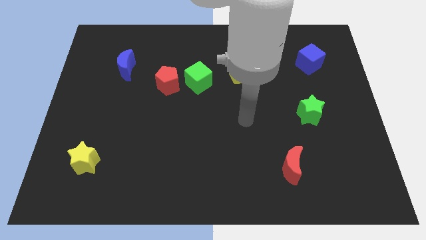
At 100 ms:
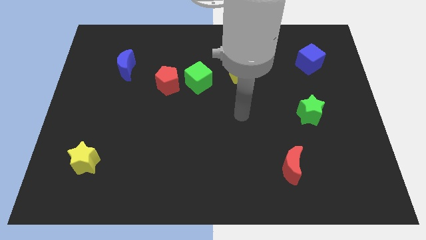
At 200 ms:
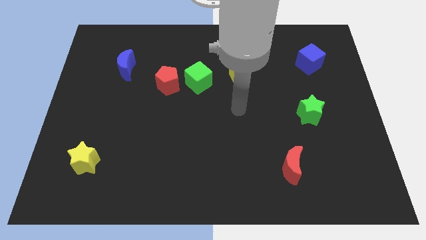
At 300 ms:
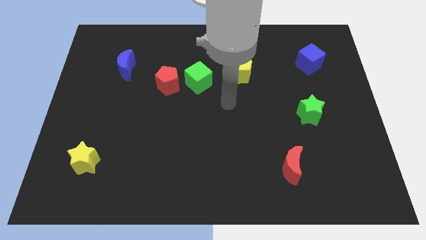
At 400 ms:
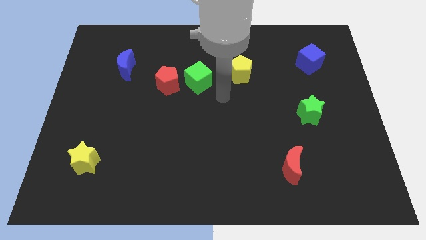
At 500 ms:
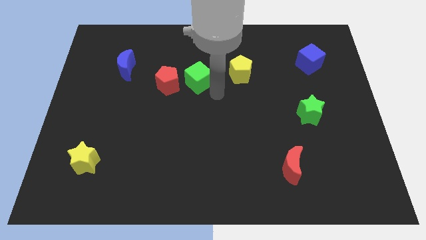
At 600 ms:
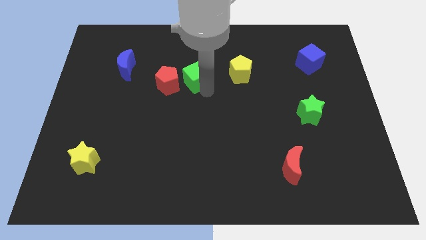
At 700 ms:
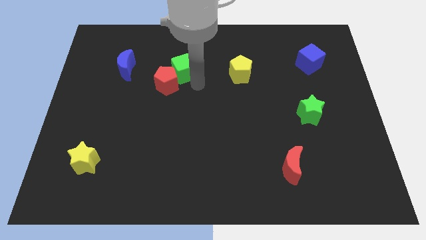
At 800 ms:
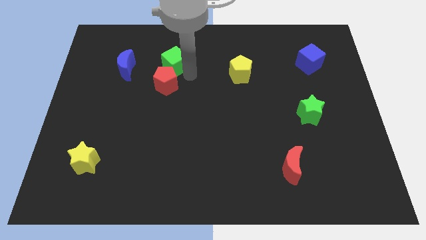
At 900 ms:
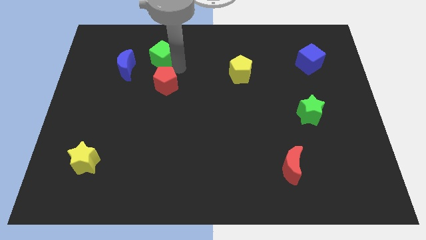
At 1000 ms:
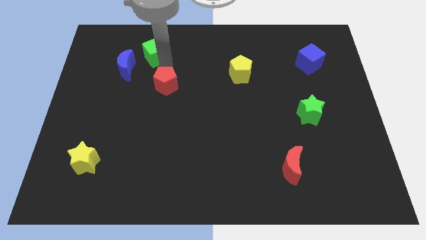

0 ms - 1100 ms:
move the red pentagon away from the green cube

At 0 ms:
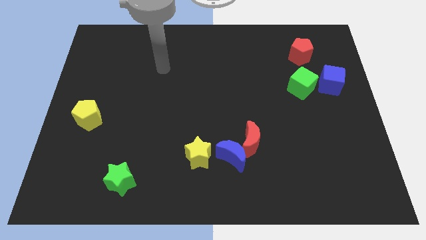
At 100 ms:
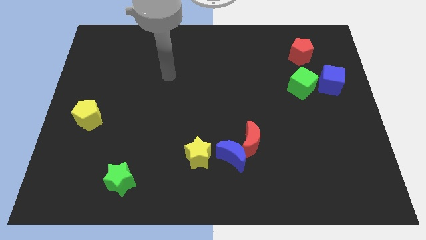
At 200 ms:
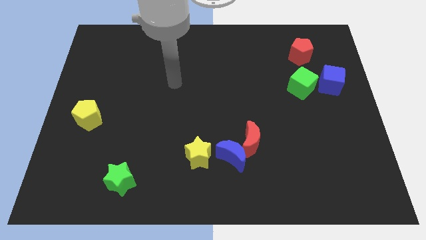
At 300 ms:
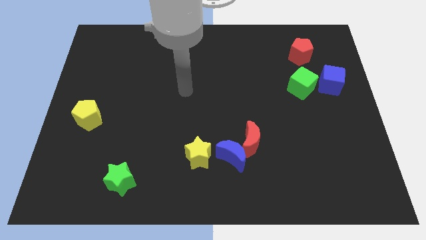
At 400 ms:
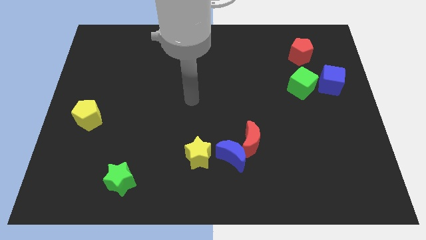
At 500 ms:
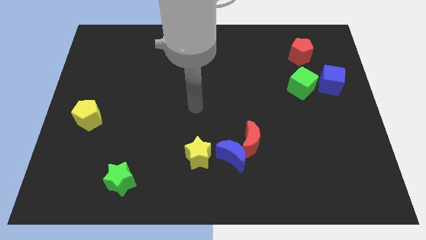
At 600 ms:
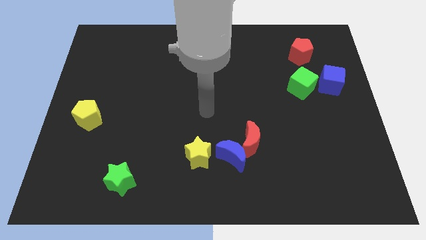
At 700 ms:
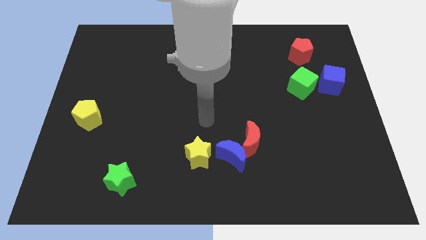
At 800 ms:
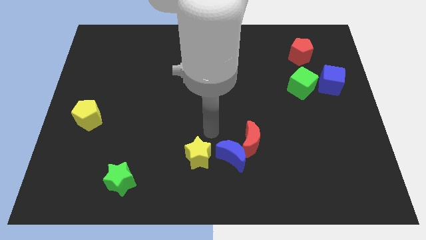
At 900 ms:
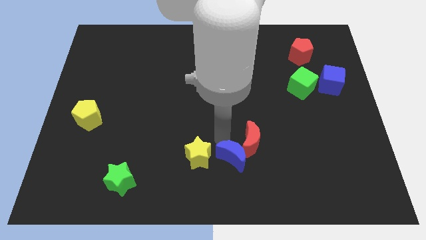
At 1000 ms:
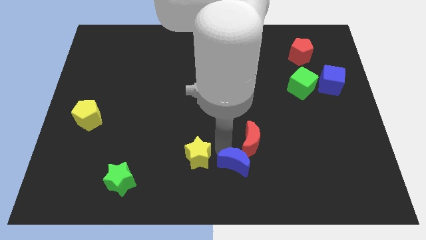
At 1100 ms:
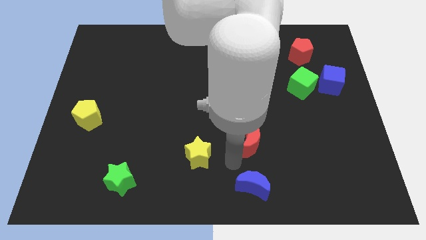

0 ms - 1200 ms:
separate the red moon from the blue moon

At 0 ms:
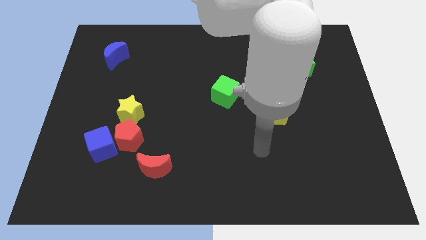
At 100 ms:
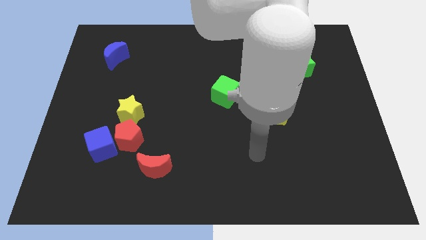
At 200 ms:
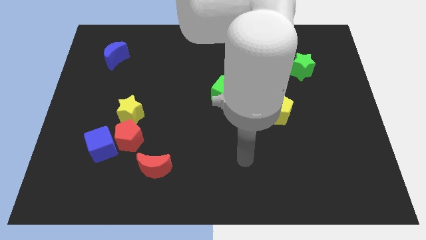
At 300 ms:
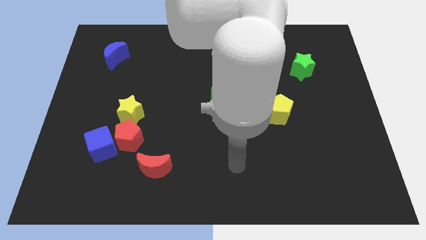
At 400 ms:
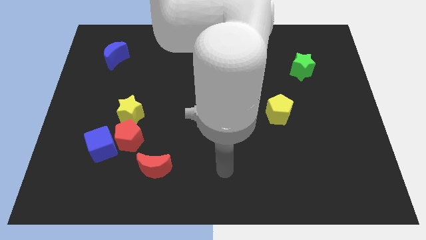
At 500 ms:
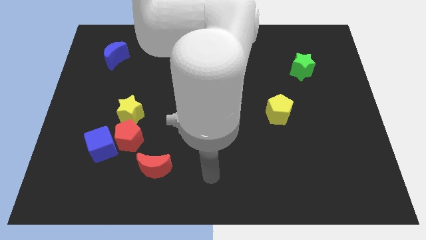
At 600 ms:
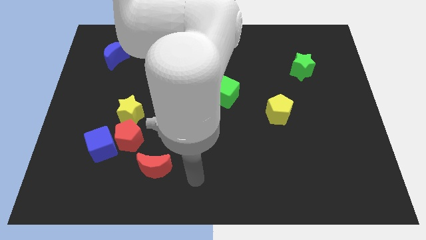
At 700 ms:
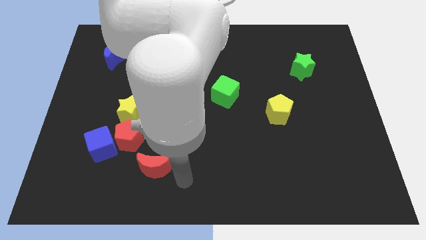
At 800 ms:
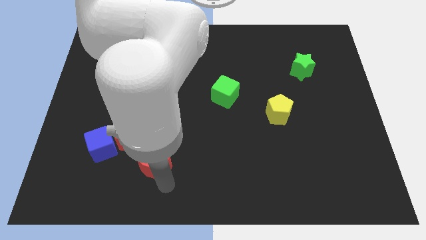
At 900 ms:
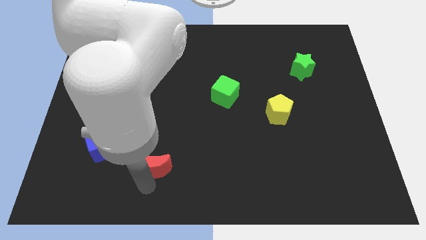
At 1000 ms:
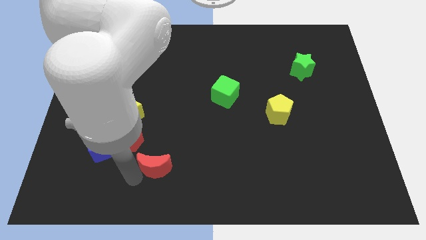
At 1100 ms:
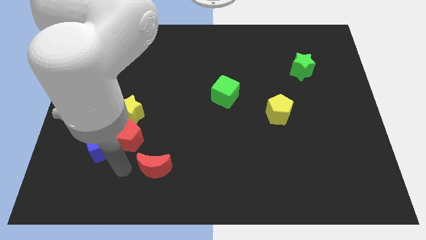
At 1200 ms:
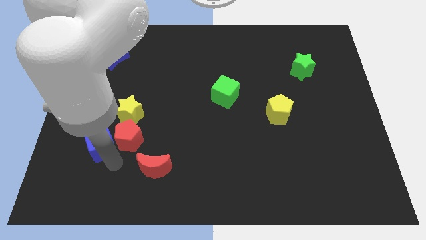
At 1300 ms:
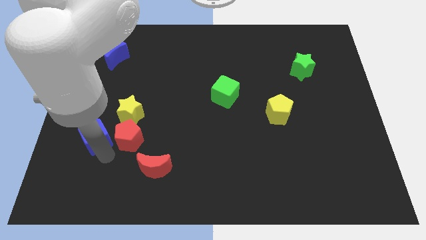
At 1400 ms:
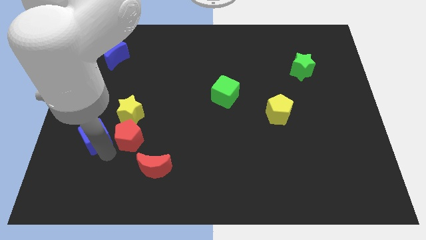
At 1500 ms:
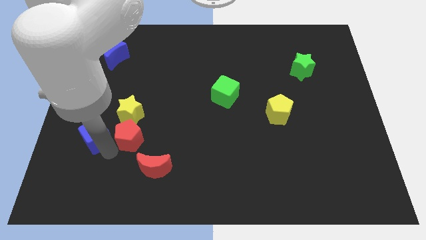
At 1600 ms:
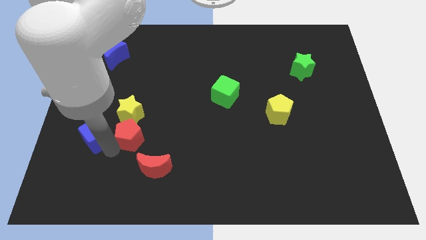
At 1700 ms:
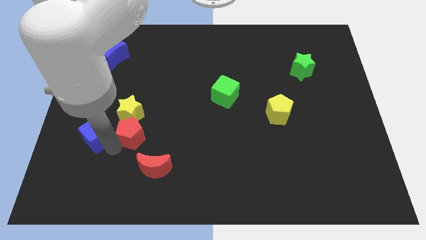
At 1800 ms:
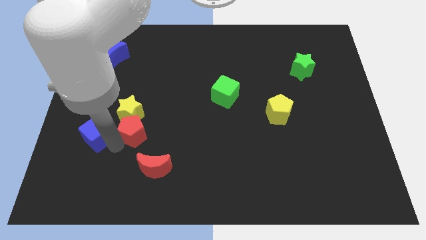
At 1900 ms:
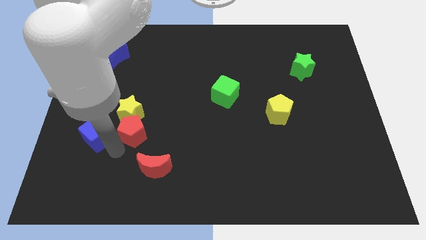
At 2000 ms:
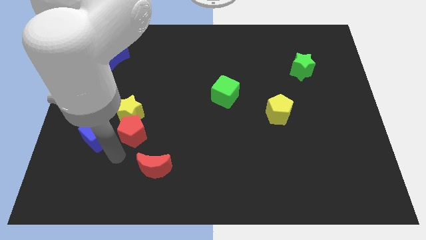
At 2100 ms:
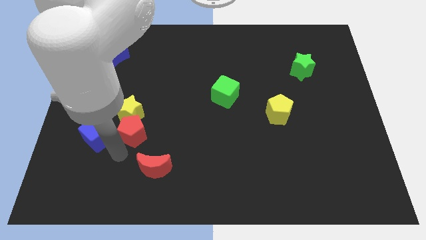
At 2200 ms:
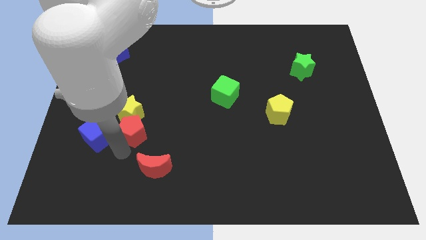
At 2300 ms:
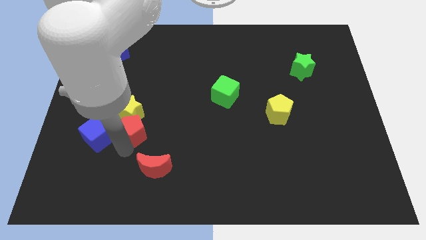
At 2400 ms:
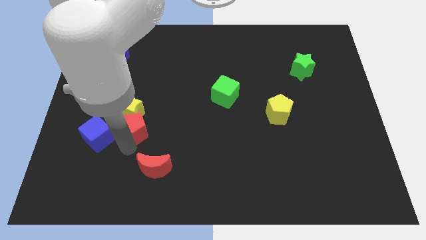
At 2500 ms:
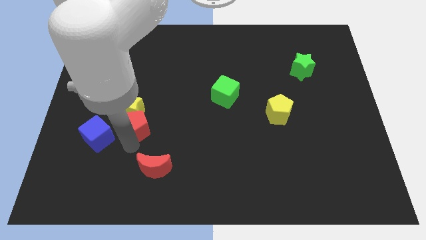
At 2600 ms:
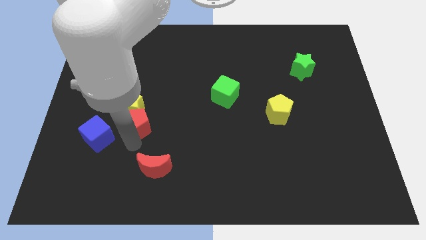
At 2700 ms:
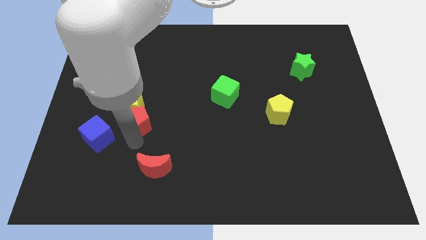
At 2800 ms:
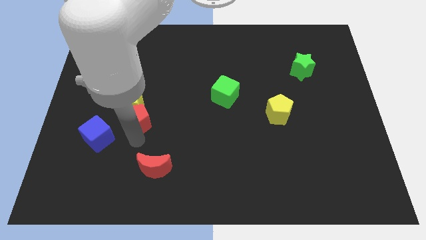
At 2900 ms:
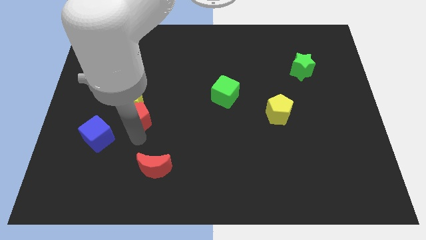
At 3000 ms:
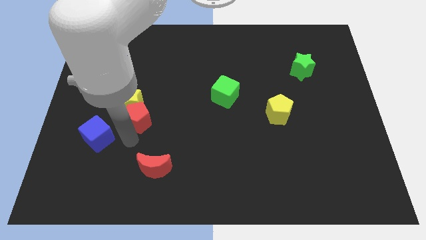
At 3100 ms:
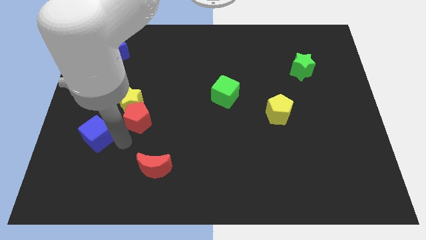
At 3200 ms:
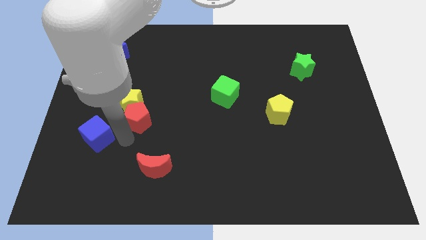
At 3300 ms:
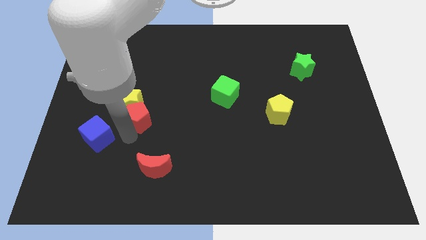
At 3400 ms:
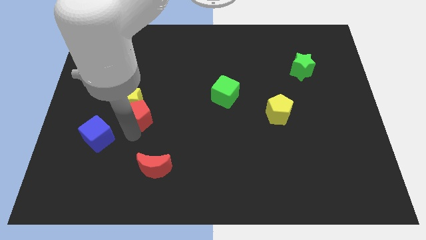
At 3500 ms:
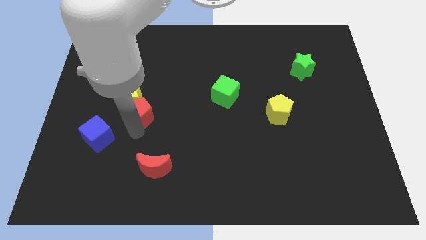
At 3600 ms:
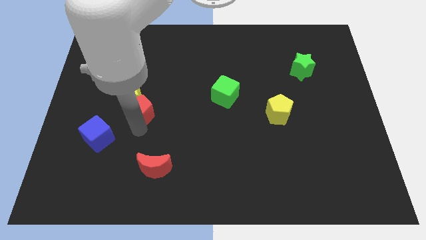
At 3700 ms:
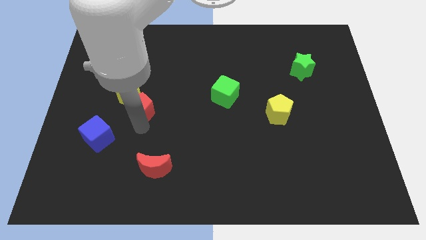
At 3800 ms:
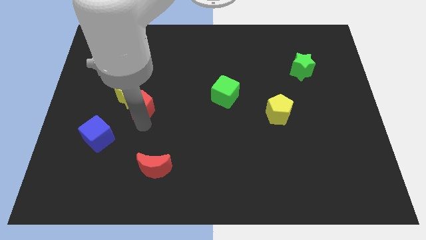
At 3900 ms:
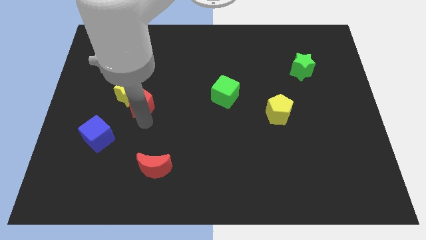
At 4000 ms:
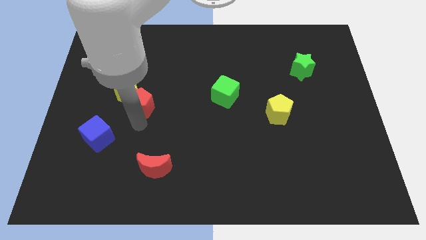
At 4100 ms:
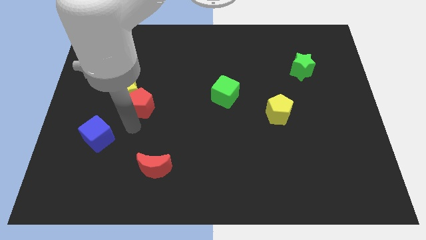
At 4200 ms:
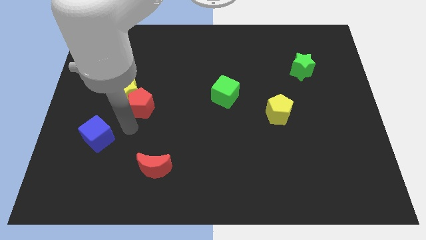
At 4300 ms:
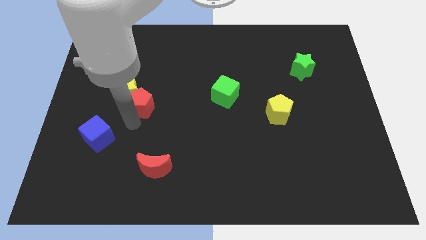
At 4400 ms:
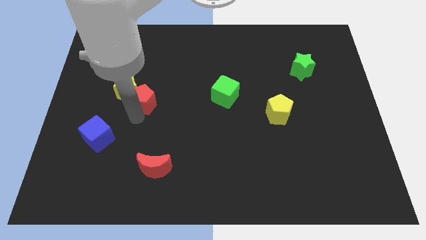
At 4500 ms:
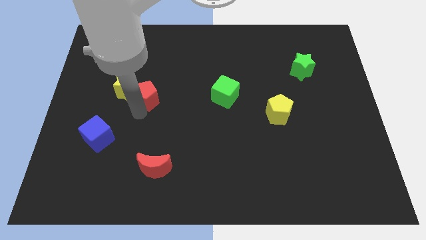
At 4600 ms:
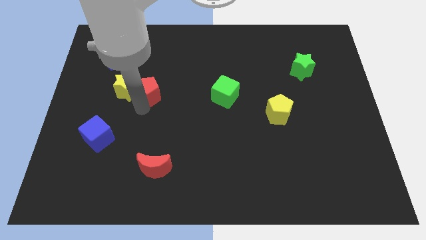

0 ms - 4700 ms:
pull the red pentagon apart from the blue cube, yellow star, and red moon

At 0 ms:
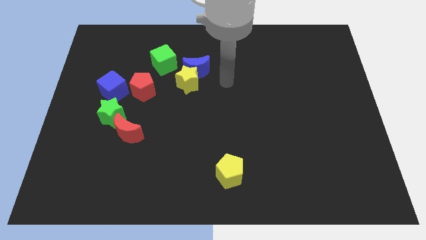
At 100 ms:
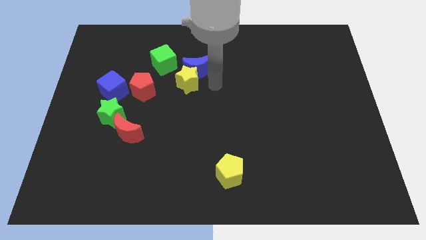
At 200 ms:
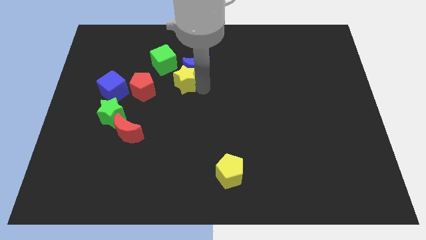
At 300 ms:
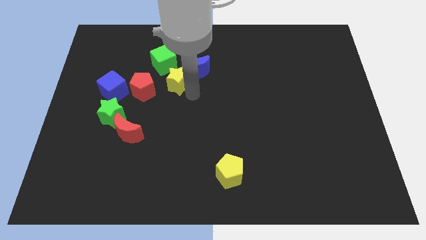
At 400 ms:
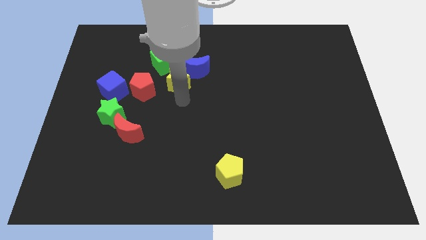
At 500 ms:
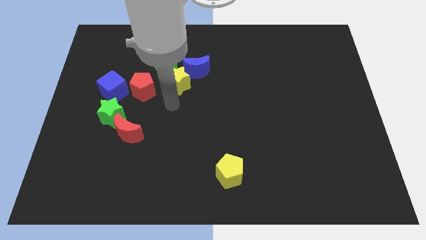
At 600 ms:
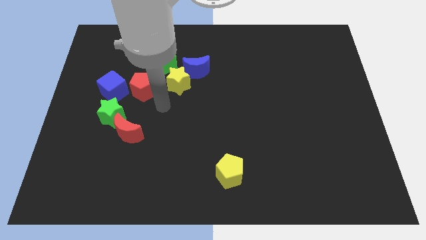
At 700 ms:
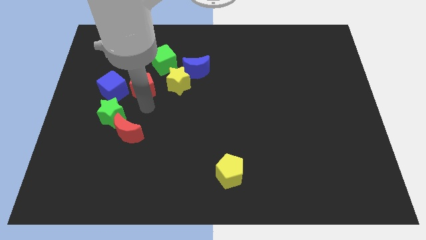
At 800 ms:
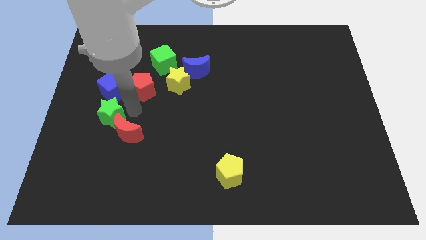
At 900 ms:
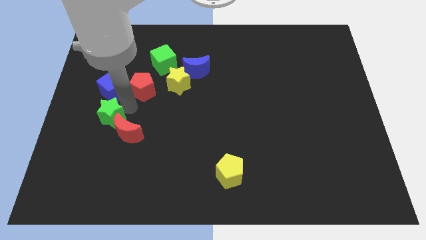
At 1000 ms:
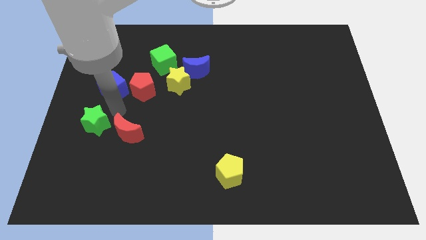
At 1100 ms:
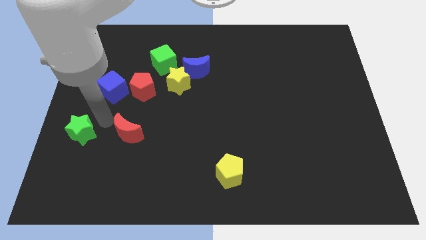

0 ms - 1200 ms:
move the red moon away from the green star

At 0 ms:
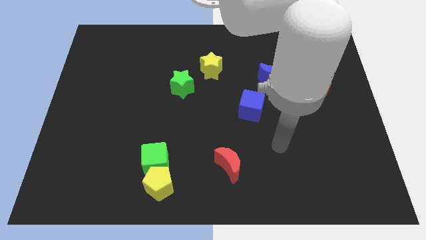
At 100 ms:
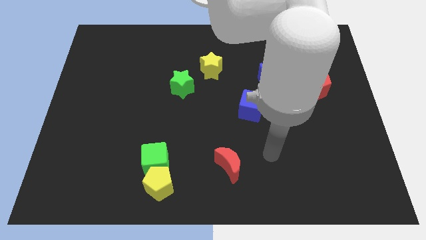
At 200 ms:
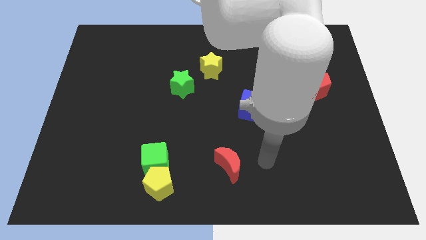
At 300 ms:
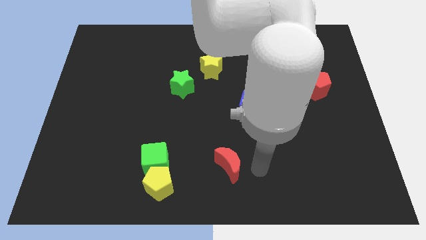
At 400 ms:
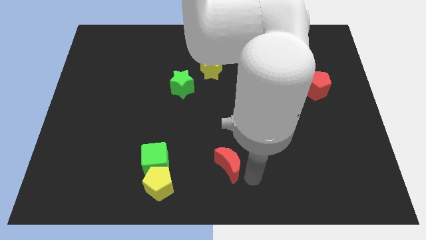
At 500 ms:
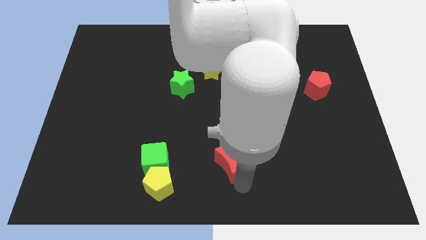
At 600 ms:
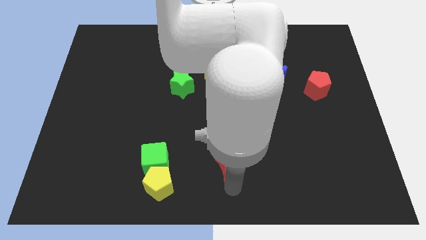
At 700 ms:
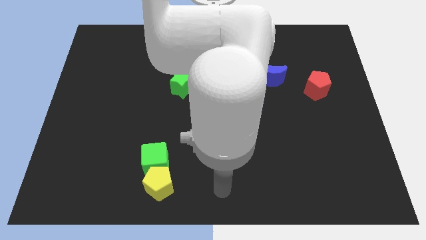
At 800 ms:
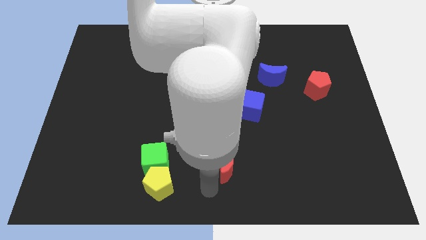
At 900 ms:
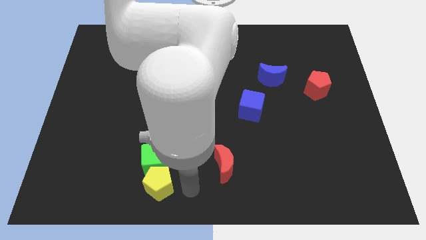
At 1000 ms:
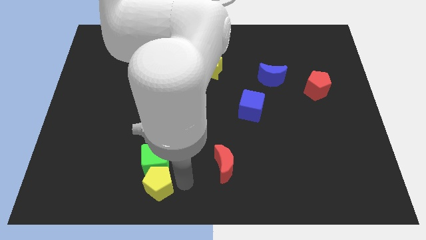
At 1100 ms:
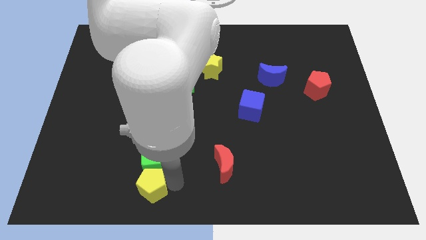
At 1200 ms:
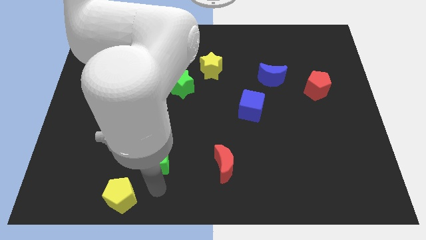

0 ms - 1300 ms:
separate the green cube from the yellow pentagon
